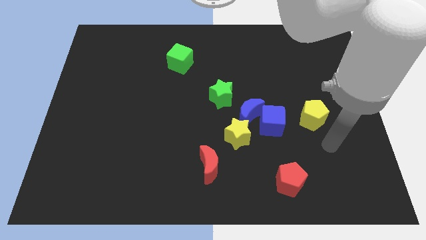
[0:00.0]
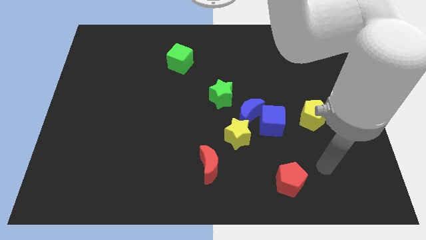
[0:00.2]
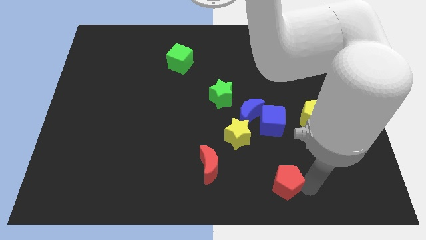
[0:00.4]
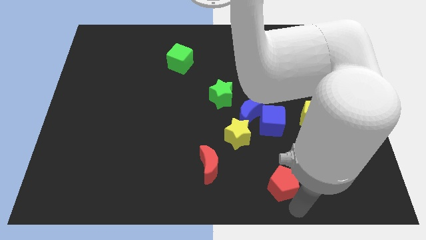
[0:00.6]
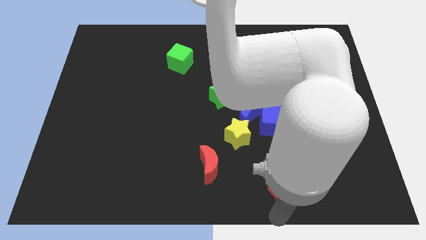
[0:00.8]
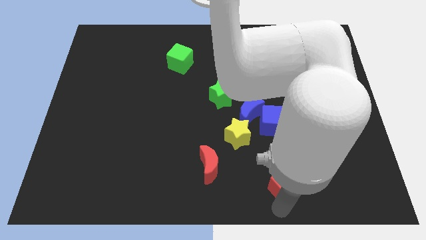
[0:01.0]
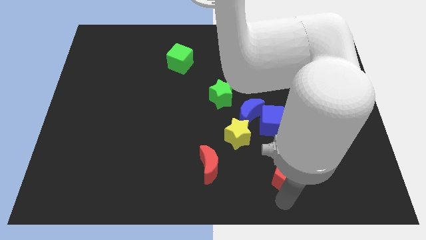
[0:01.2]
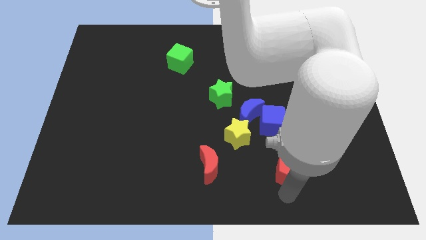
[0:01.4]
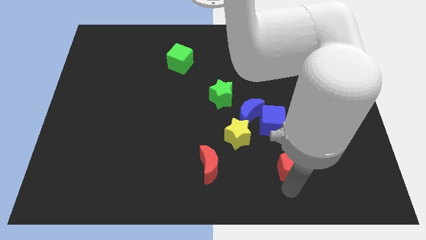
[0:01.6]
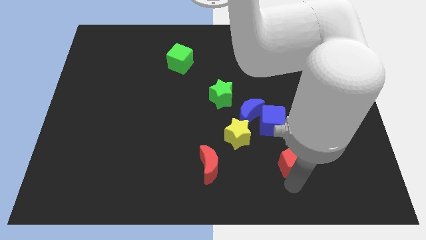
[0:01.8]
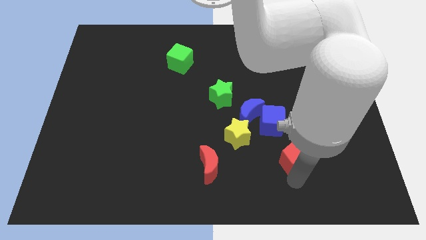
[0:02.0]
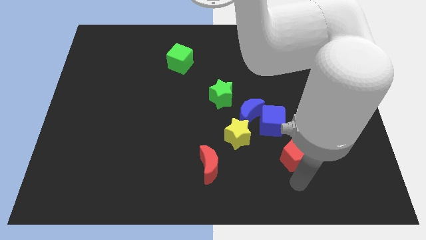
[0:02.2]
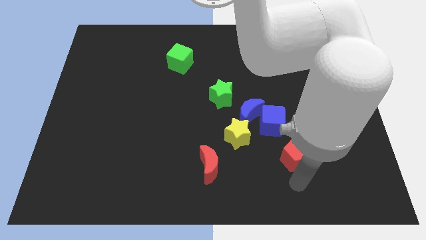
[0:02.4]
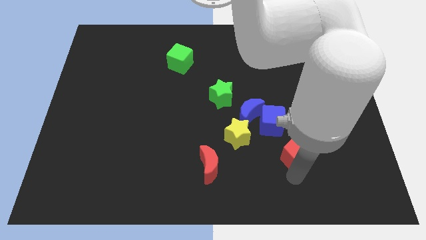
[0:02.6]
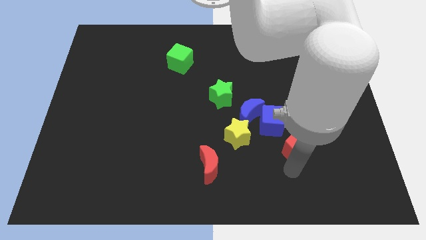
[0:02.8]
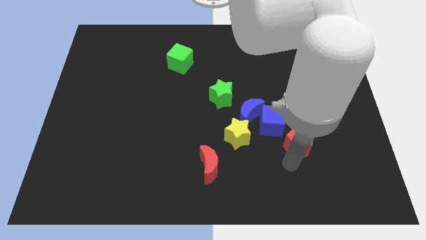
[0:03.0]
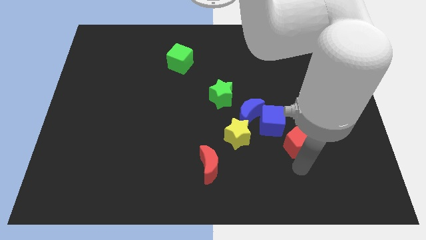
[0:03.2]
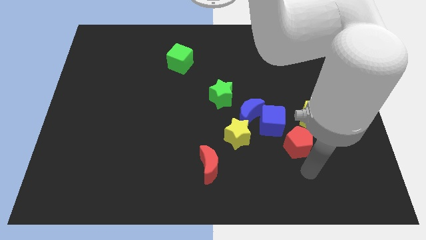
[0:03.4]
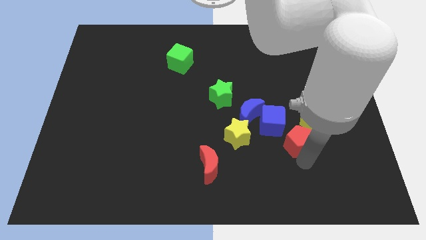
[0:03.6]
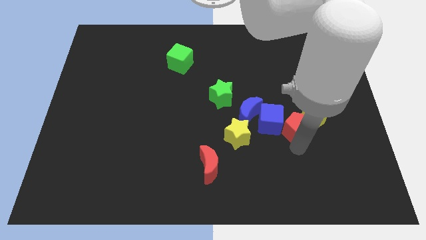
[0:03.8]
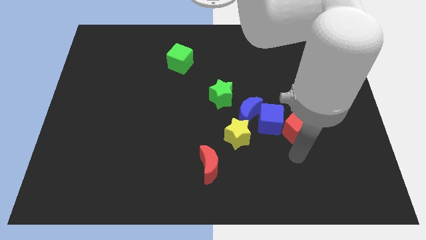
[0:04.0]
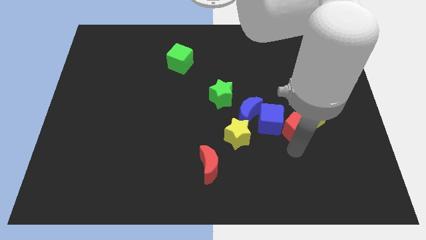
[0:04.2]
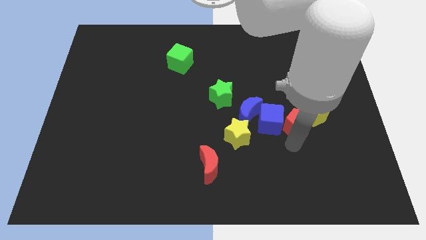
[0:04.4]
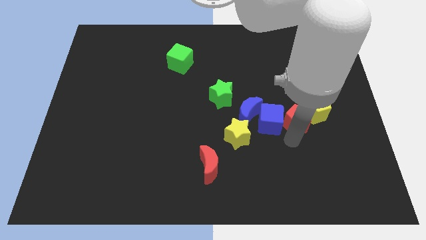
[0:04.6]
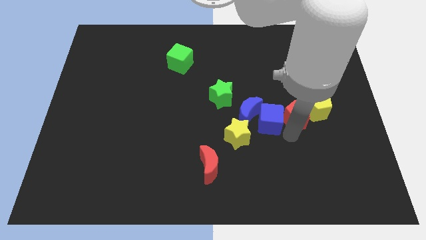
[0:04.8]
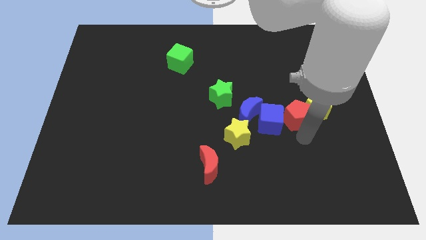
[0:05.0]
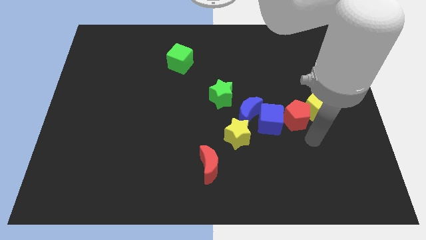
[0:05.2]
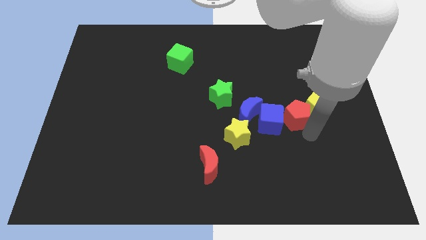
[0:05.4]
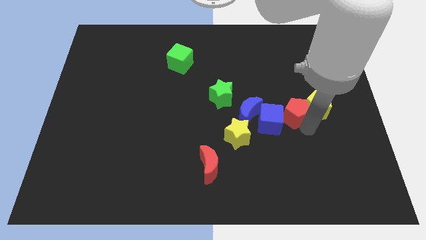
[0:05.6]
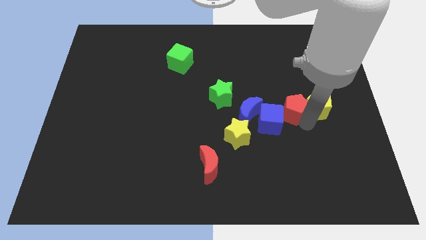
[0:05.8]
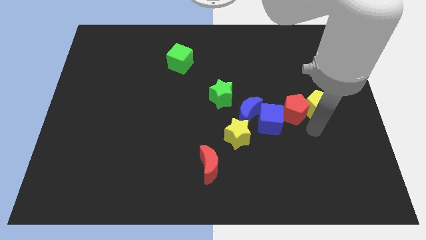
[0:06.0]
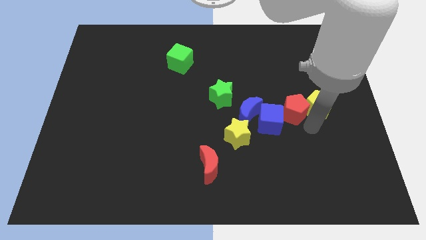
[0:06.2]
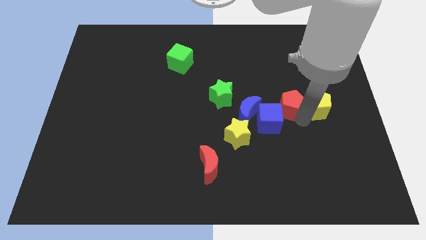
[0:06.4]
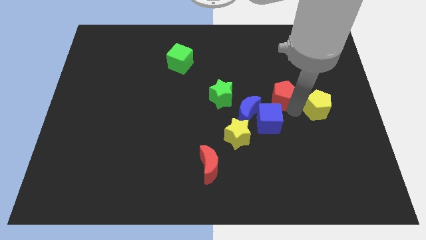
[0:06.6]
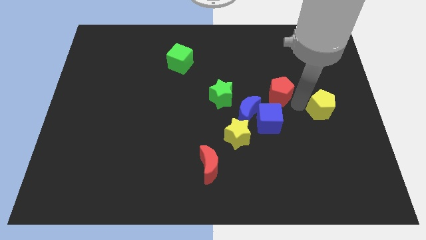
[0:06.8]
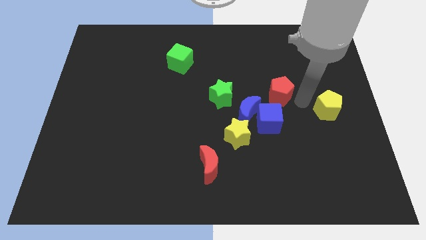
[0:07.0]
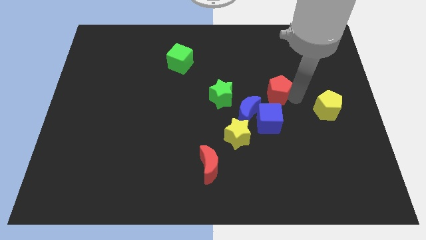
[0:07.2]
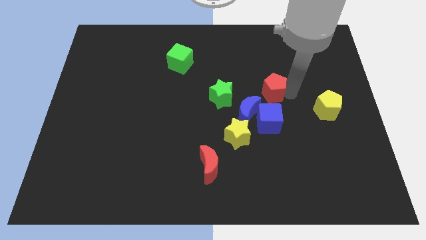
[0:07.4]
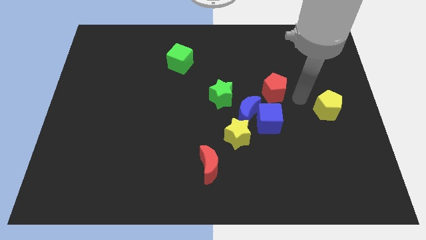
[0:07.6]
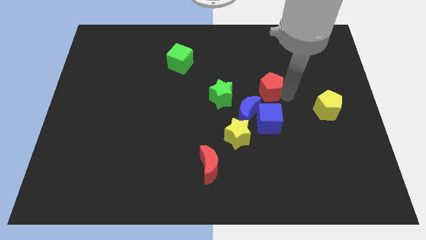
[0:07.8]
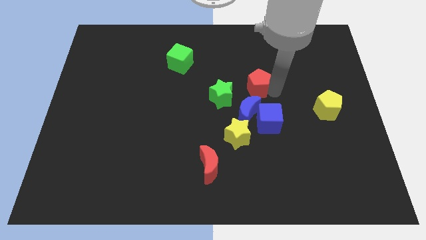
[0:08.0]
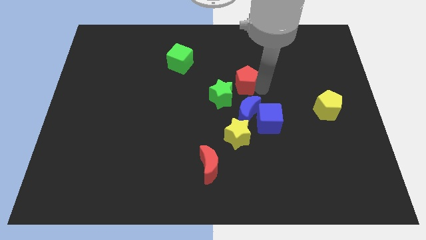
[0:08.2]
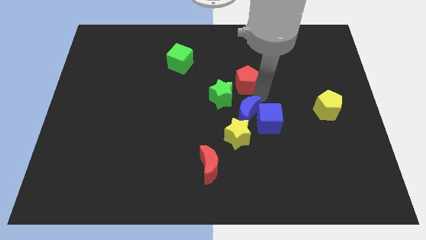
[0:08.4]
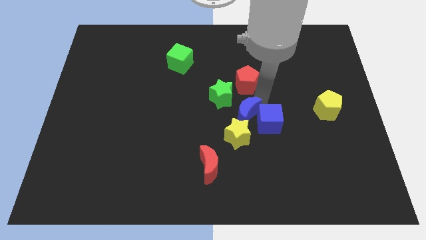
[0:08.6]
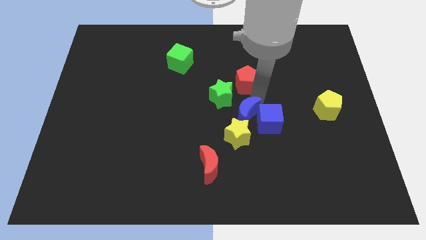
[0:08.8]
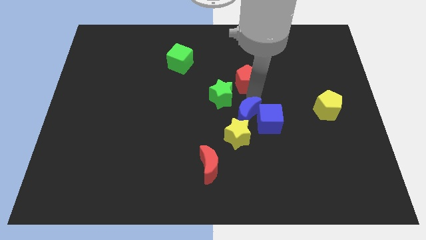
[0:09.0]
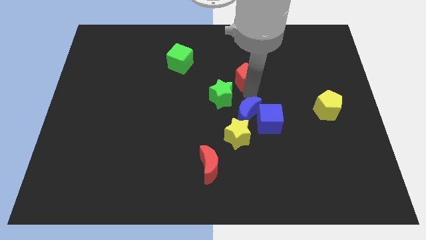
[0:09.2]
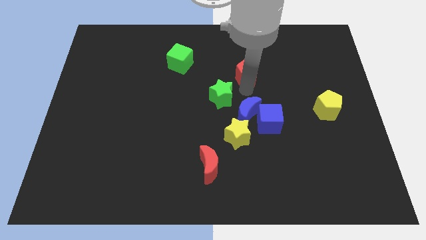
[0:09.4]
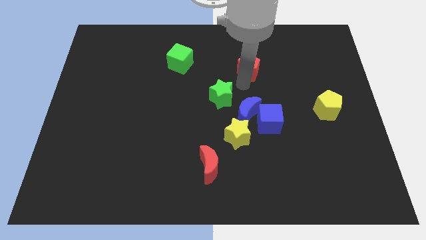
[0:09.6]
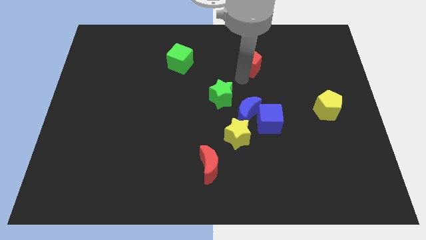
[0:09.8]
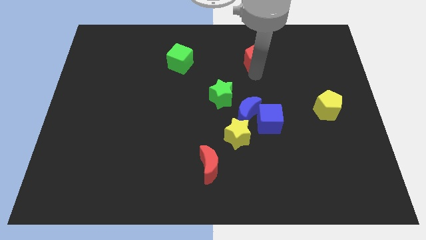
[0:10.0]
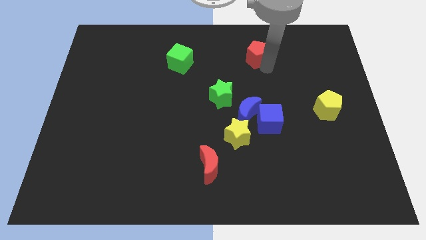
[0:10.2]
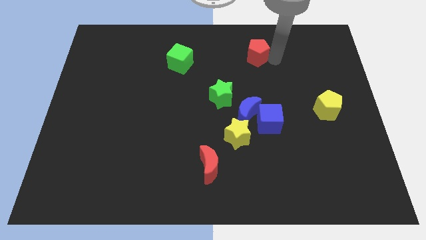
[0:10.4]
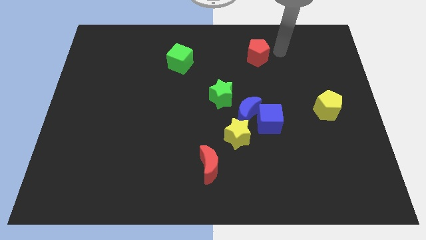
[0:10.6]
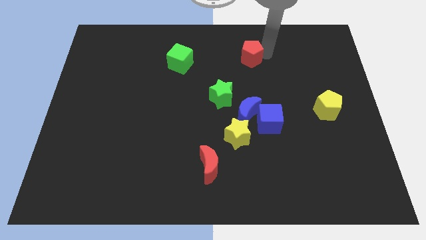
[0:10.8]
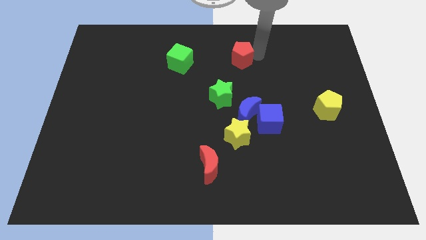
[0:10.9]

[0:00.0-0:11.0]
put the red pentagon to the right side of the green cube

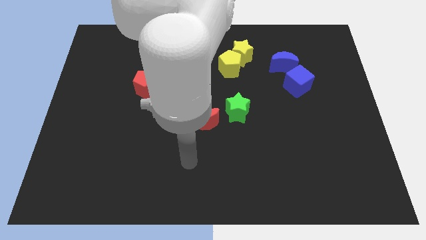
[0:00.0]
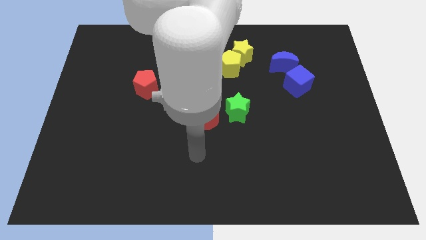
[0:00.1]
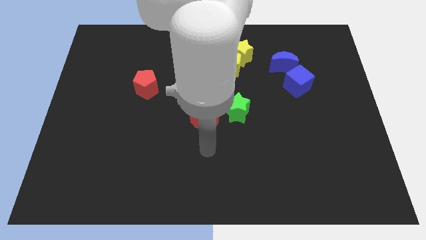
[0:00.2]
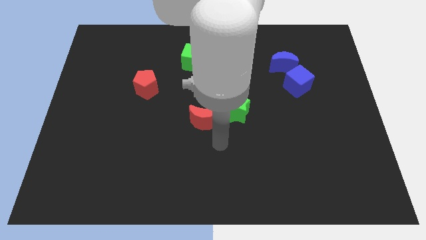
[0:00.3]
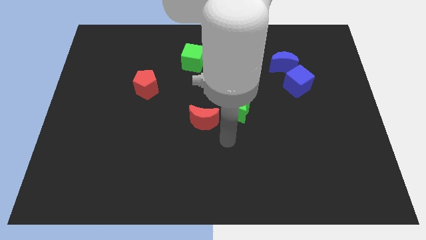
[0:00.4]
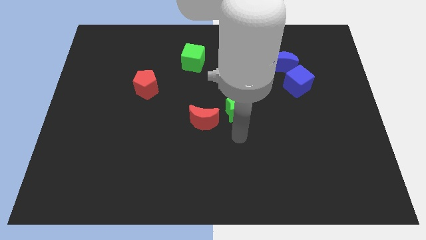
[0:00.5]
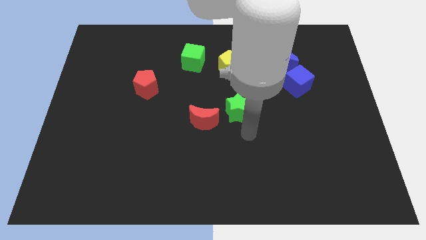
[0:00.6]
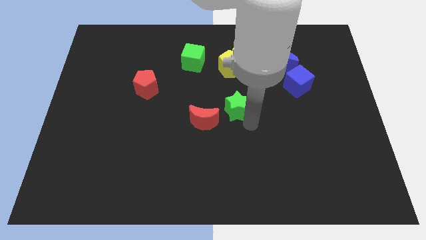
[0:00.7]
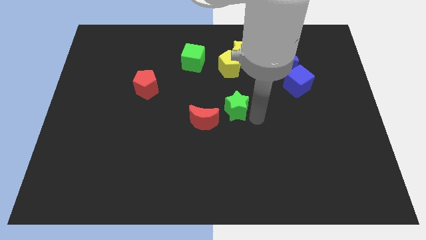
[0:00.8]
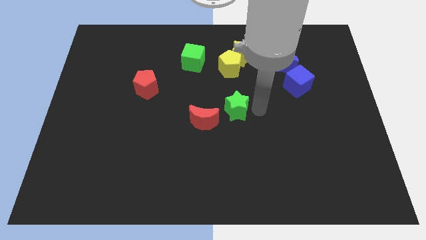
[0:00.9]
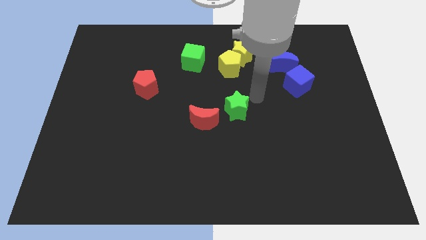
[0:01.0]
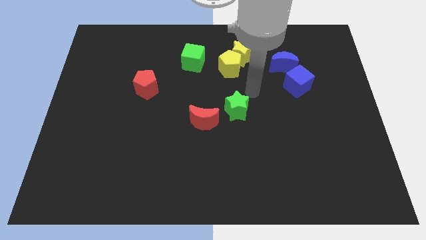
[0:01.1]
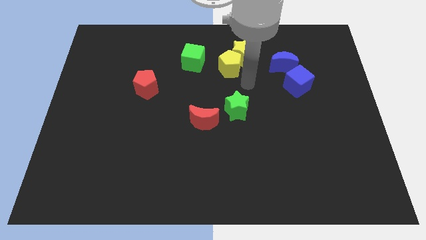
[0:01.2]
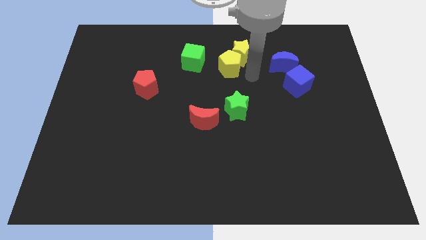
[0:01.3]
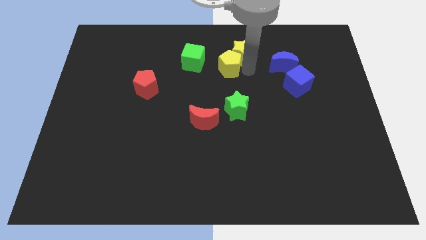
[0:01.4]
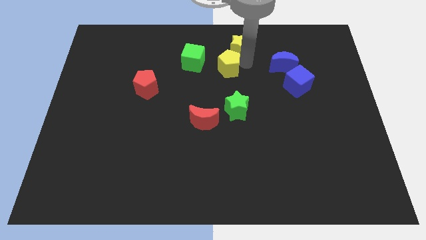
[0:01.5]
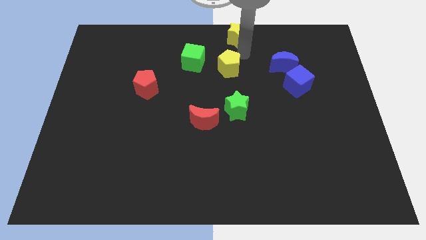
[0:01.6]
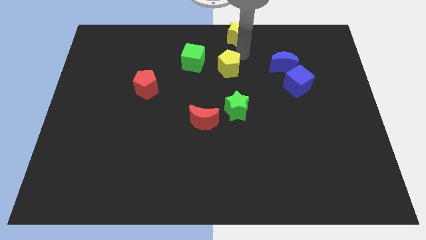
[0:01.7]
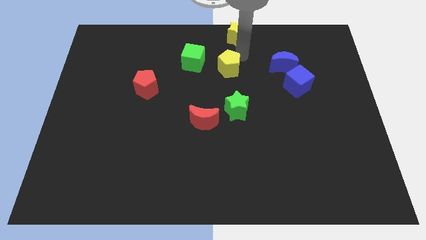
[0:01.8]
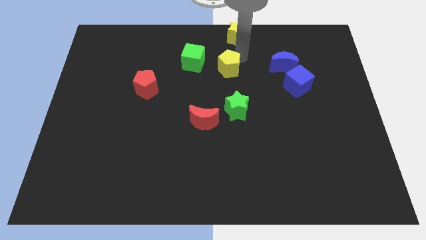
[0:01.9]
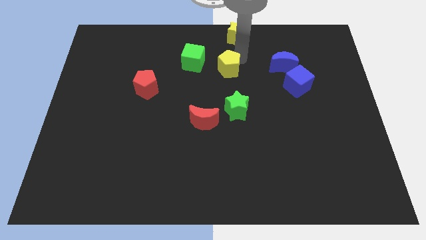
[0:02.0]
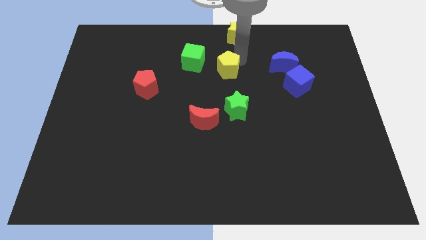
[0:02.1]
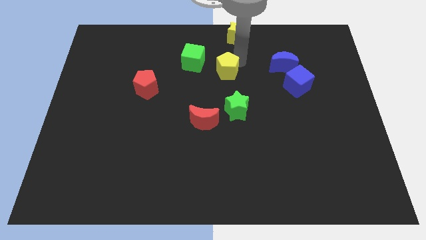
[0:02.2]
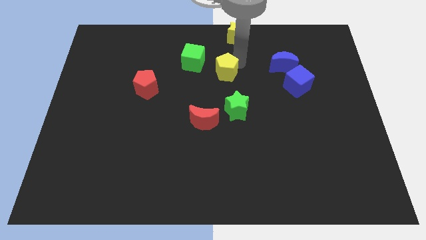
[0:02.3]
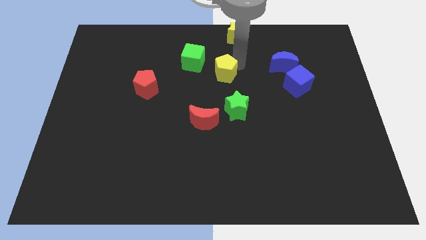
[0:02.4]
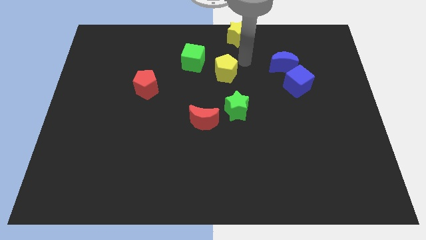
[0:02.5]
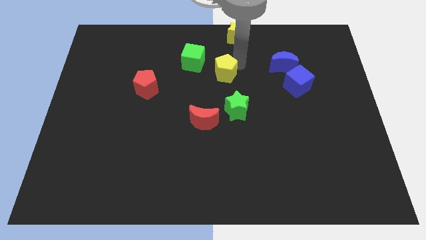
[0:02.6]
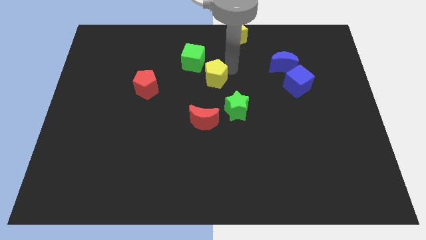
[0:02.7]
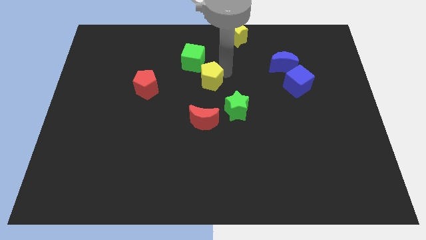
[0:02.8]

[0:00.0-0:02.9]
push the yellow pentagon to the bottom side of the green cube
